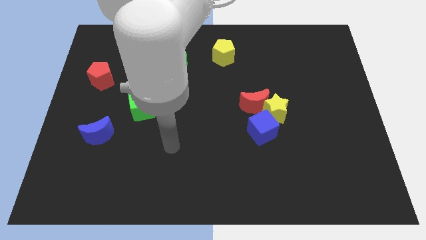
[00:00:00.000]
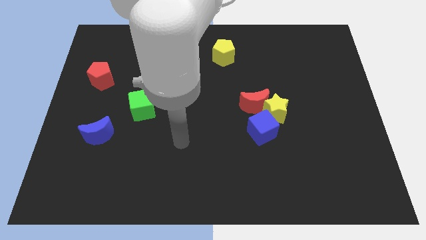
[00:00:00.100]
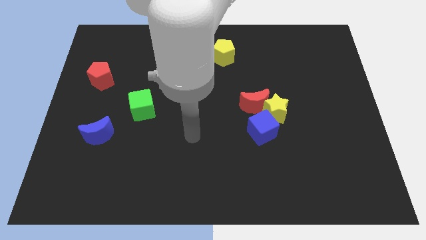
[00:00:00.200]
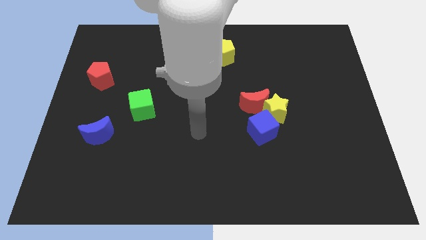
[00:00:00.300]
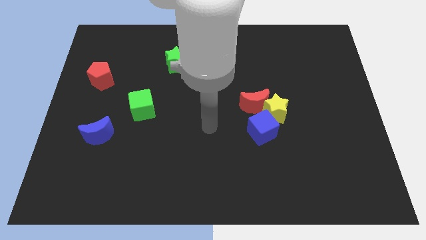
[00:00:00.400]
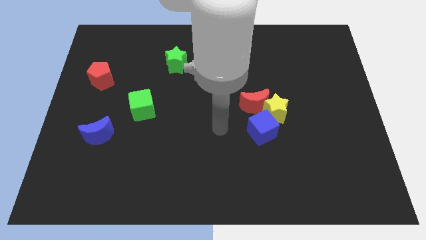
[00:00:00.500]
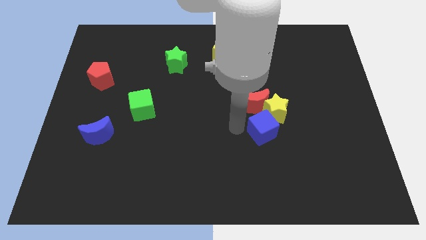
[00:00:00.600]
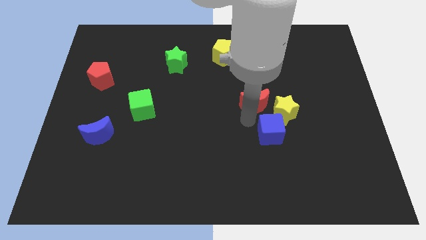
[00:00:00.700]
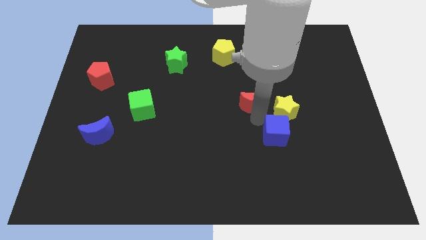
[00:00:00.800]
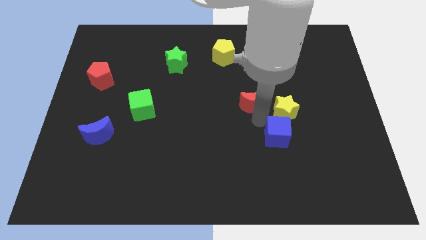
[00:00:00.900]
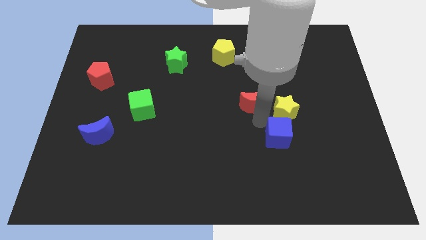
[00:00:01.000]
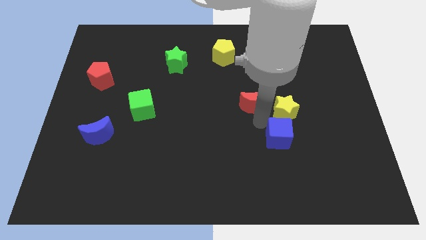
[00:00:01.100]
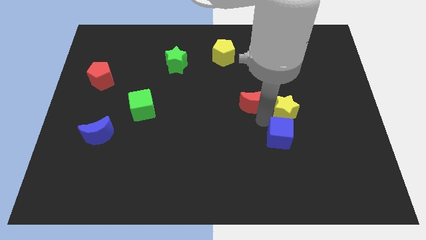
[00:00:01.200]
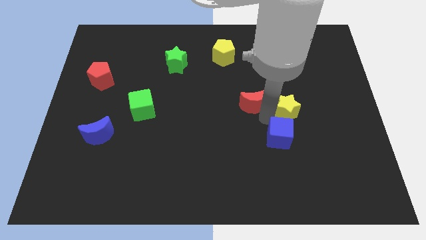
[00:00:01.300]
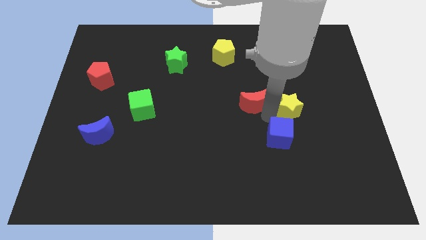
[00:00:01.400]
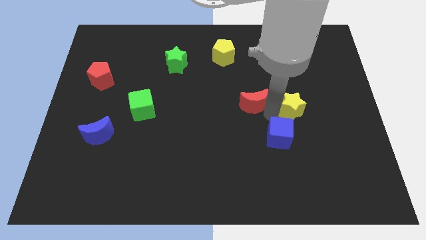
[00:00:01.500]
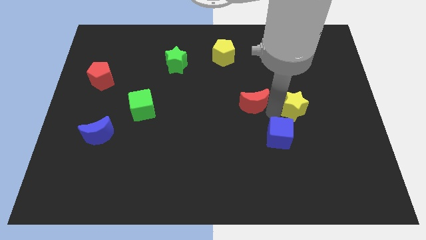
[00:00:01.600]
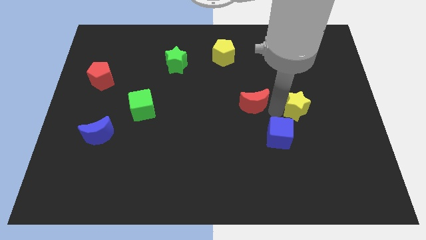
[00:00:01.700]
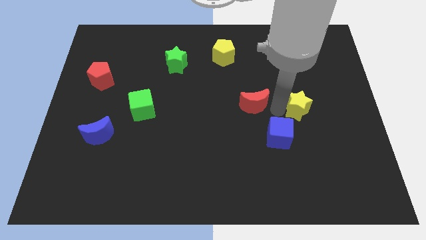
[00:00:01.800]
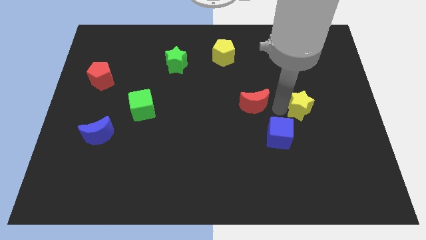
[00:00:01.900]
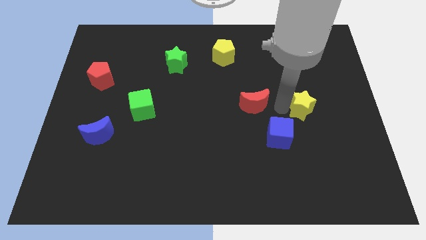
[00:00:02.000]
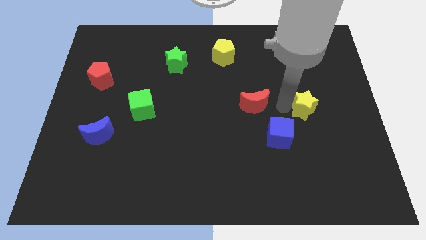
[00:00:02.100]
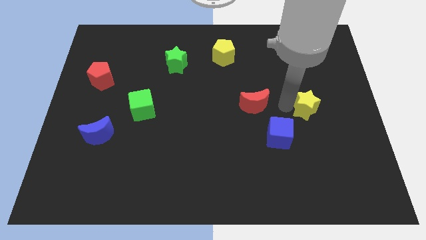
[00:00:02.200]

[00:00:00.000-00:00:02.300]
move the yellow star away from the red moon and blue cube

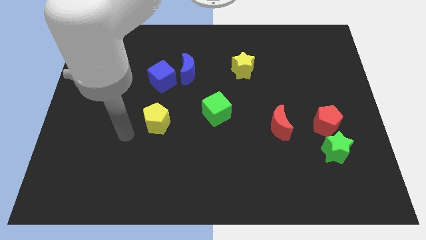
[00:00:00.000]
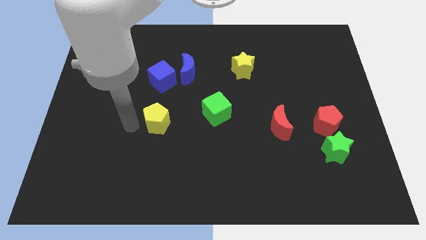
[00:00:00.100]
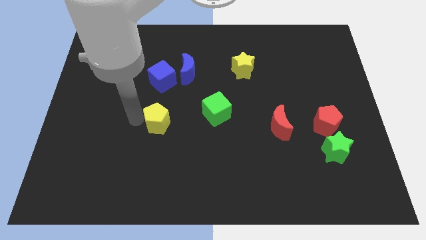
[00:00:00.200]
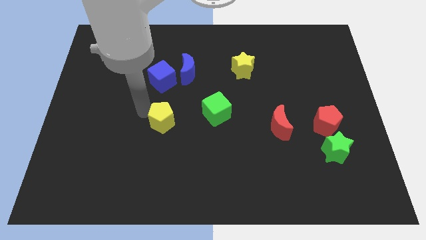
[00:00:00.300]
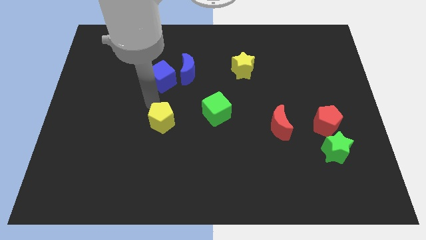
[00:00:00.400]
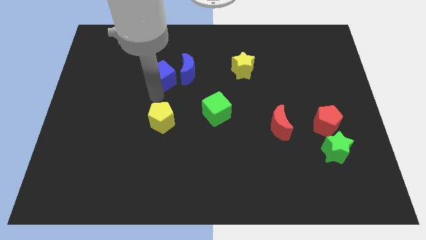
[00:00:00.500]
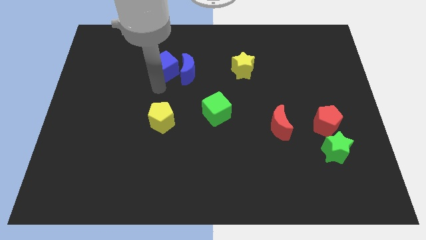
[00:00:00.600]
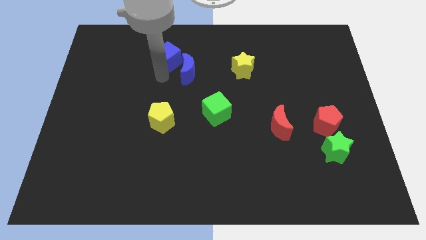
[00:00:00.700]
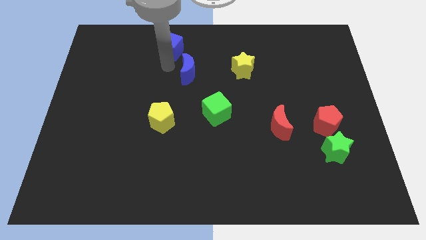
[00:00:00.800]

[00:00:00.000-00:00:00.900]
separate the blue moon from the blue cube

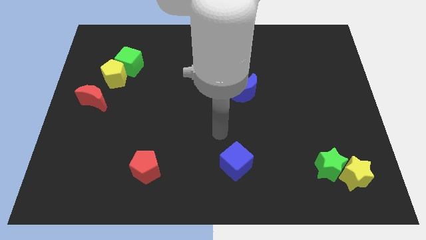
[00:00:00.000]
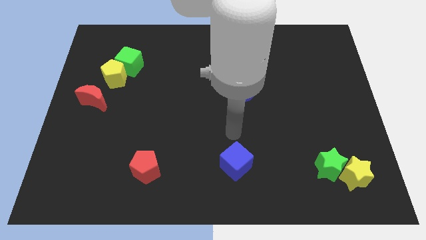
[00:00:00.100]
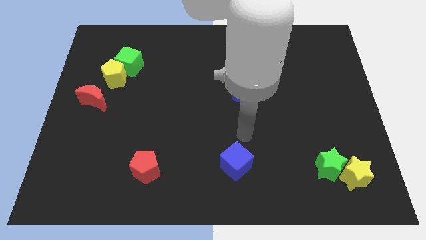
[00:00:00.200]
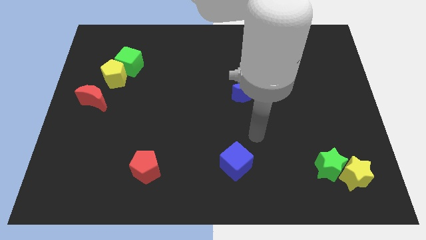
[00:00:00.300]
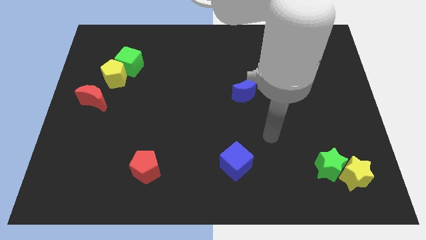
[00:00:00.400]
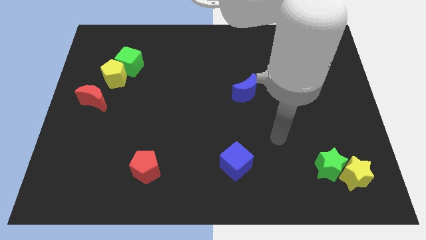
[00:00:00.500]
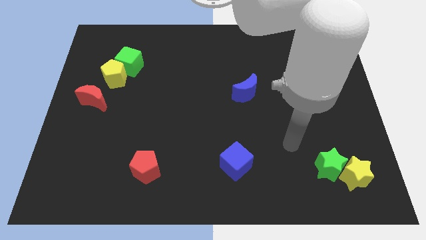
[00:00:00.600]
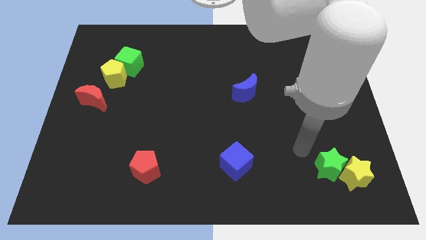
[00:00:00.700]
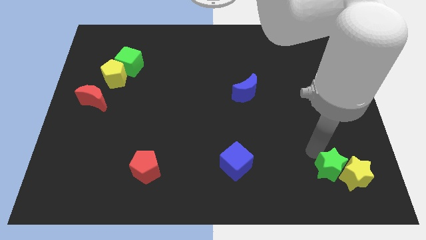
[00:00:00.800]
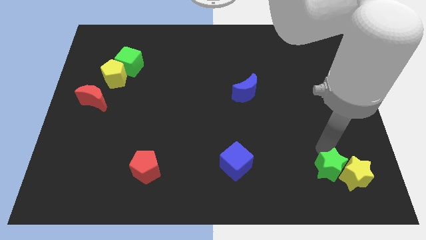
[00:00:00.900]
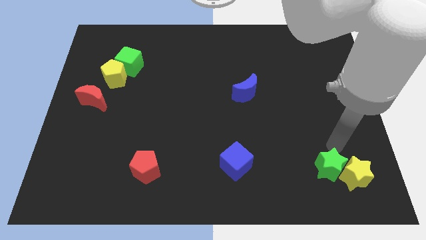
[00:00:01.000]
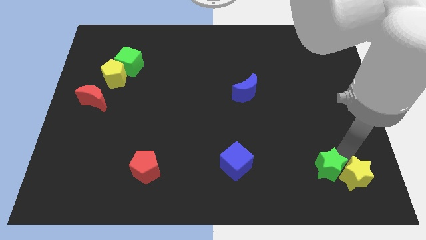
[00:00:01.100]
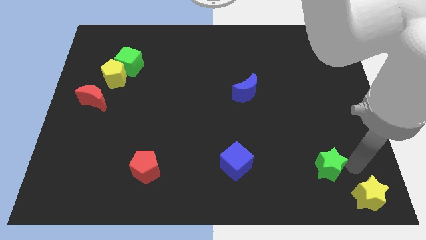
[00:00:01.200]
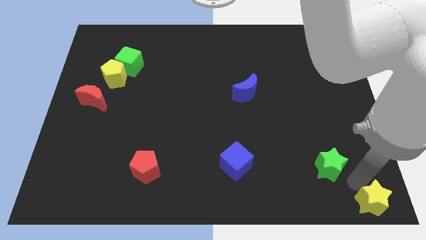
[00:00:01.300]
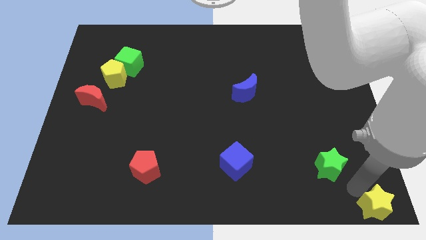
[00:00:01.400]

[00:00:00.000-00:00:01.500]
move the green star away from the yellow star

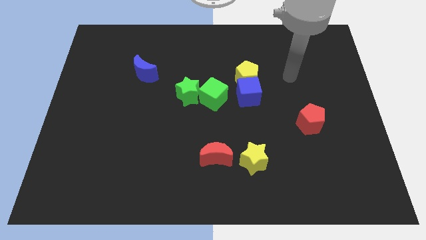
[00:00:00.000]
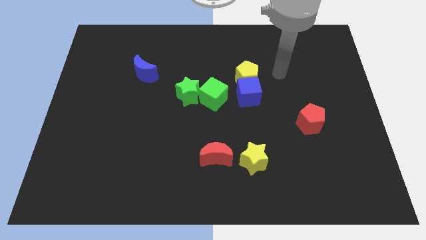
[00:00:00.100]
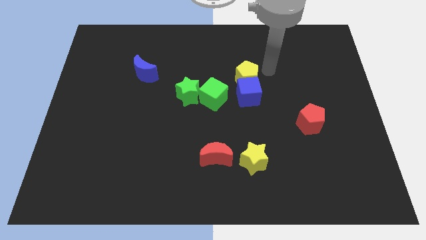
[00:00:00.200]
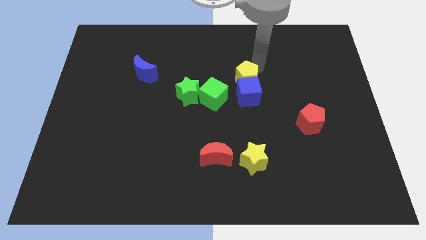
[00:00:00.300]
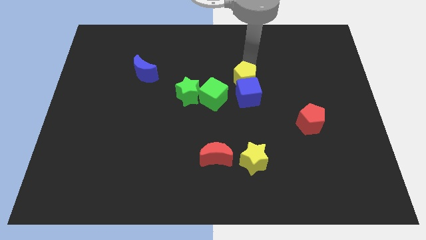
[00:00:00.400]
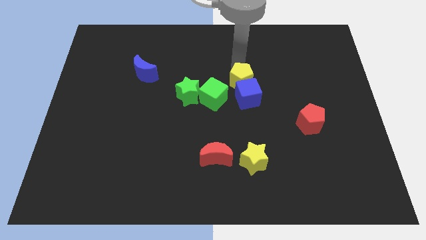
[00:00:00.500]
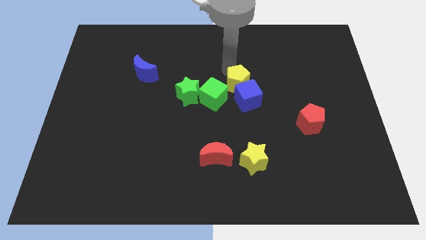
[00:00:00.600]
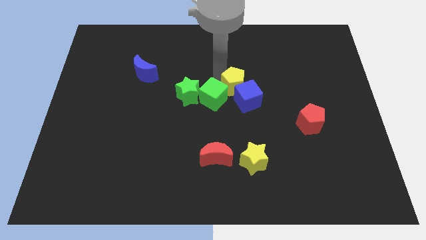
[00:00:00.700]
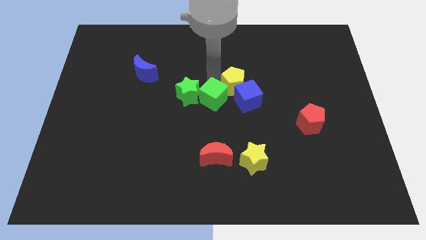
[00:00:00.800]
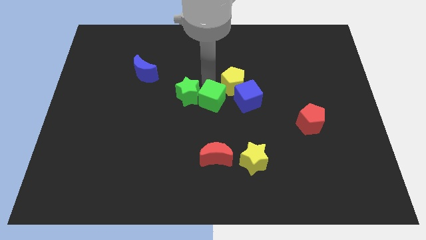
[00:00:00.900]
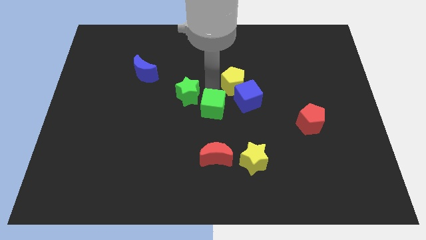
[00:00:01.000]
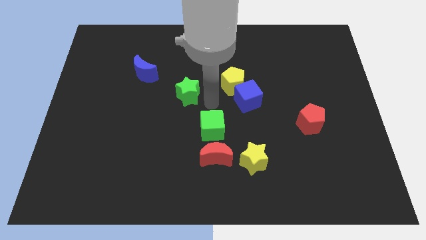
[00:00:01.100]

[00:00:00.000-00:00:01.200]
separate the green star from the green cube

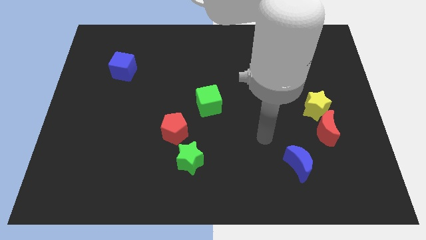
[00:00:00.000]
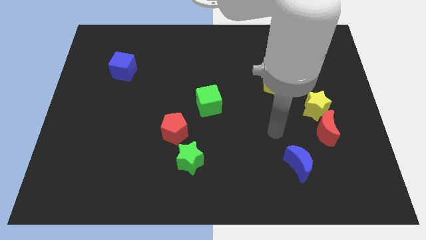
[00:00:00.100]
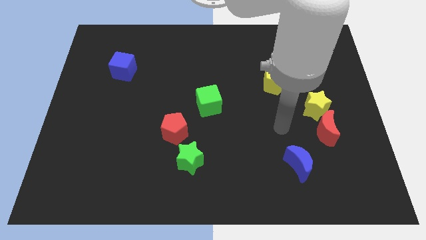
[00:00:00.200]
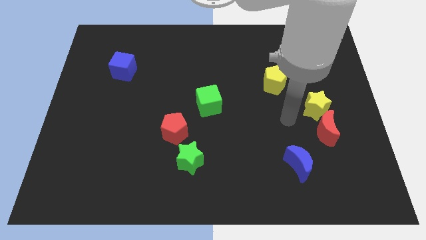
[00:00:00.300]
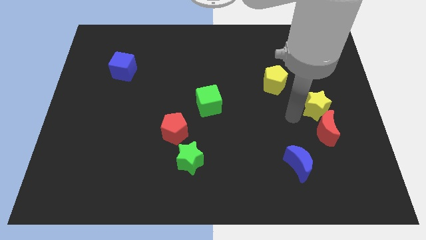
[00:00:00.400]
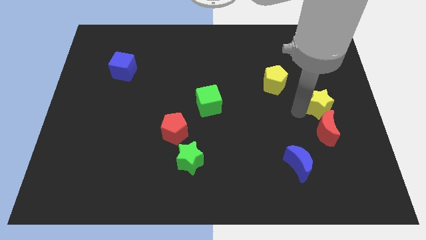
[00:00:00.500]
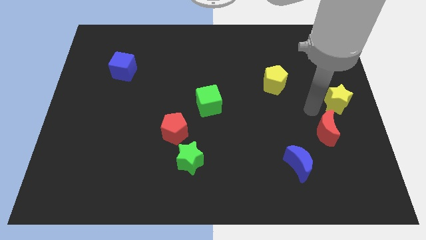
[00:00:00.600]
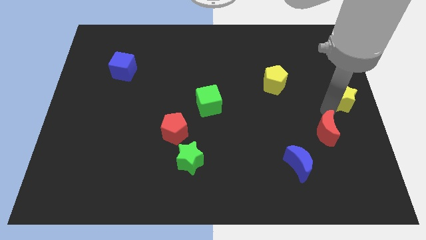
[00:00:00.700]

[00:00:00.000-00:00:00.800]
separate the red moon from the yellow star

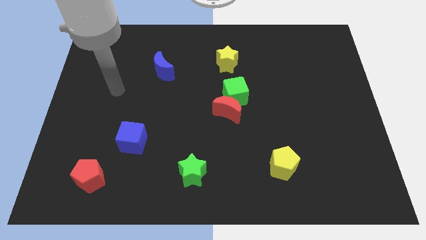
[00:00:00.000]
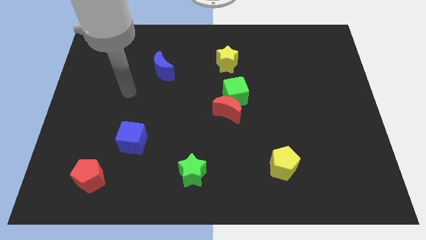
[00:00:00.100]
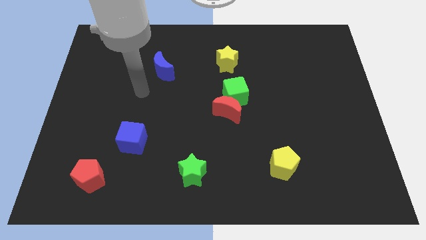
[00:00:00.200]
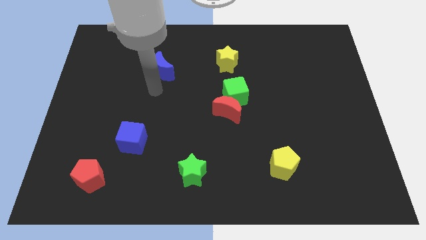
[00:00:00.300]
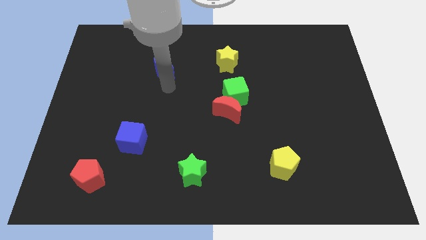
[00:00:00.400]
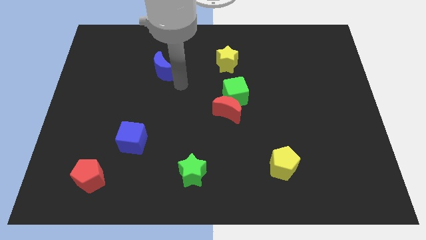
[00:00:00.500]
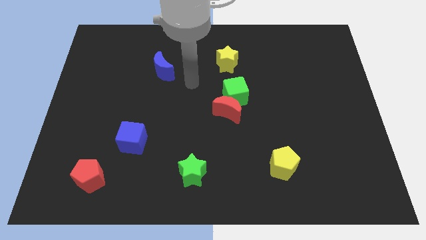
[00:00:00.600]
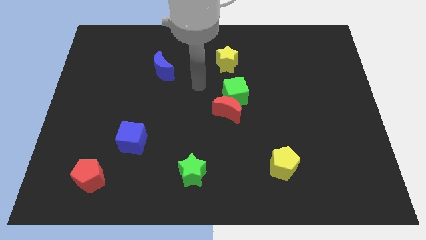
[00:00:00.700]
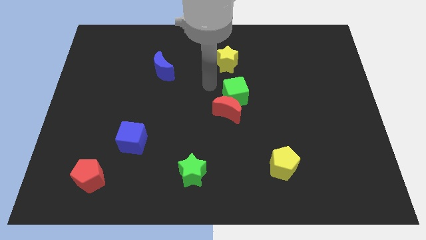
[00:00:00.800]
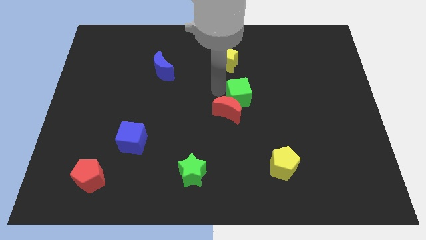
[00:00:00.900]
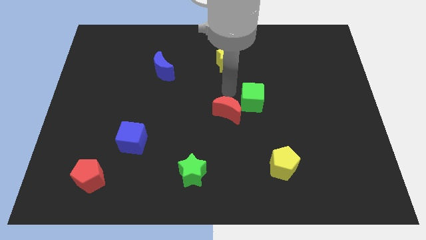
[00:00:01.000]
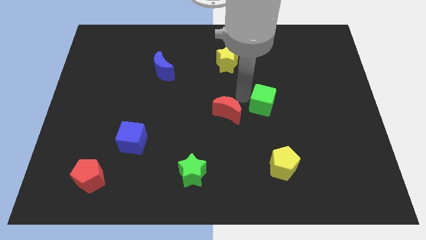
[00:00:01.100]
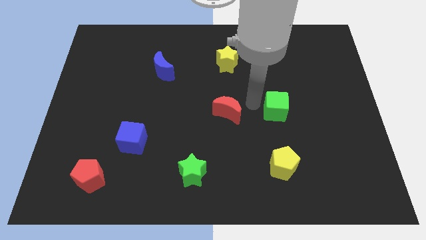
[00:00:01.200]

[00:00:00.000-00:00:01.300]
move the red moon away from the green cube

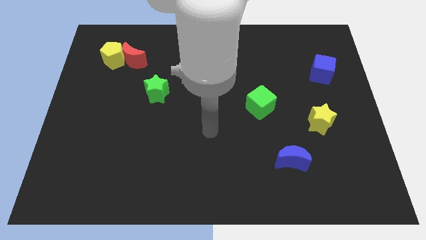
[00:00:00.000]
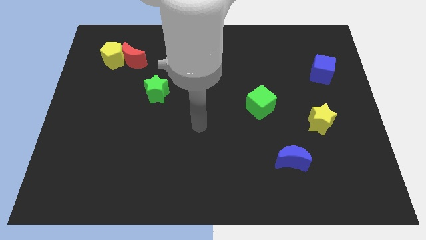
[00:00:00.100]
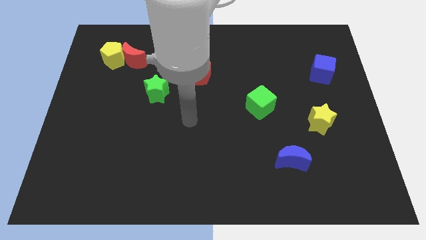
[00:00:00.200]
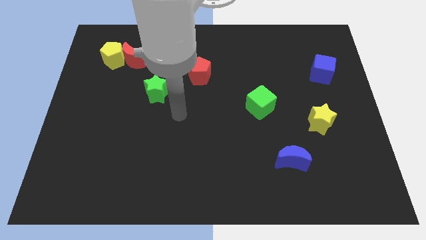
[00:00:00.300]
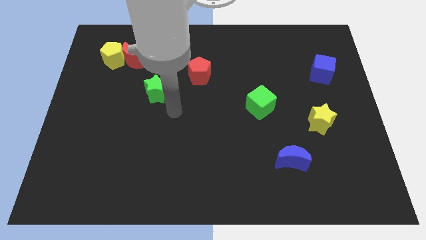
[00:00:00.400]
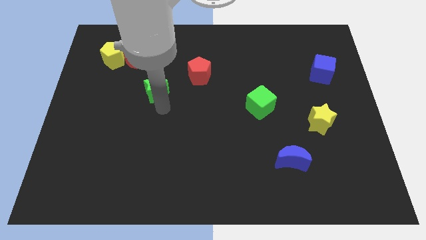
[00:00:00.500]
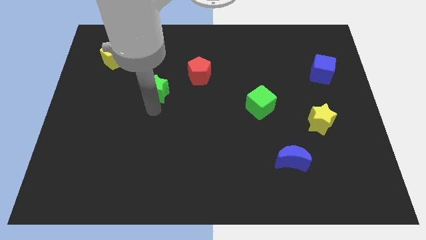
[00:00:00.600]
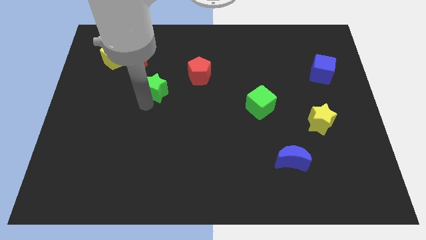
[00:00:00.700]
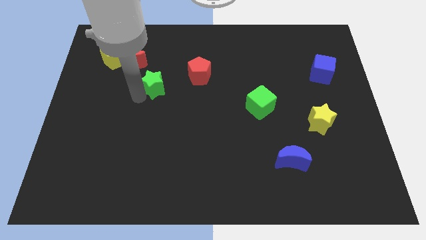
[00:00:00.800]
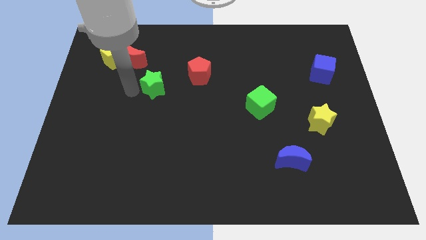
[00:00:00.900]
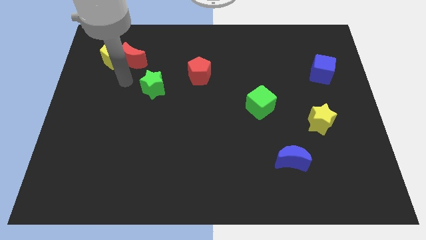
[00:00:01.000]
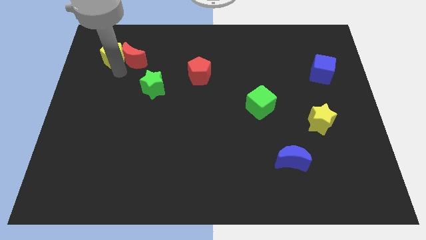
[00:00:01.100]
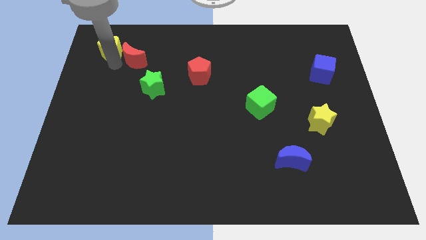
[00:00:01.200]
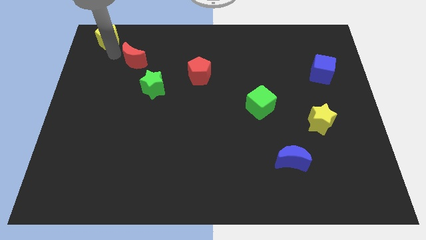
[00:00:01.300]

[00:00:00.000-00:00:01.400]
pull the red moon apart from the yellow pentagon
